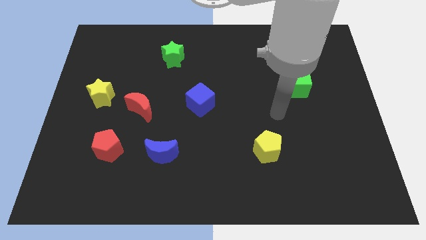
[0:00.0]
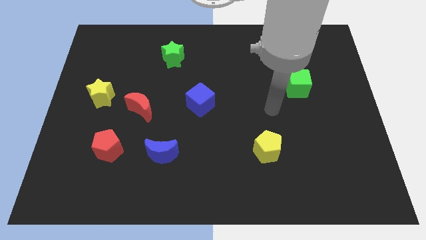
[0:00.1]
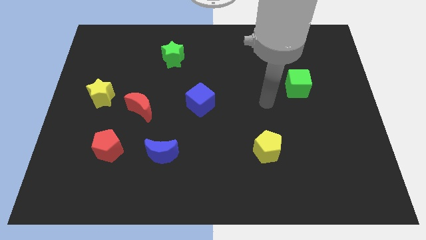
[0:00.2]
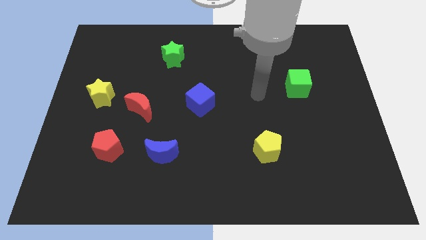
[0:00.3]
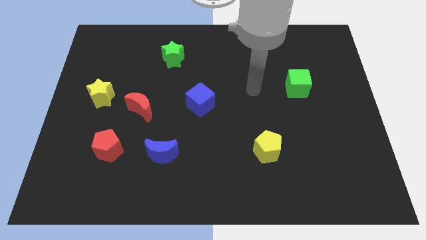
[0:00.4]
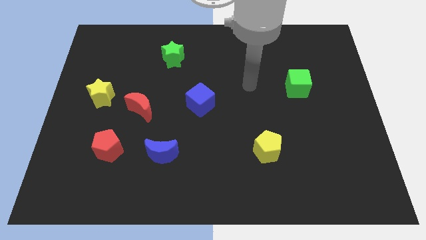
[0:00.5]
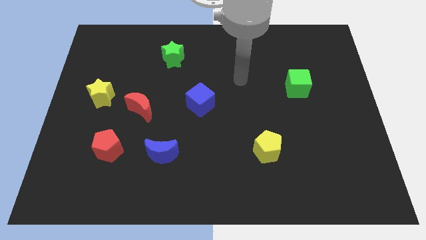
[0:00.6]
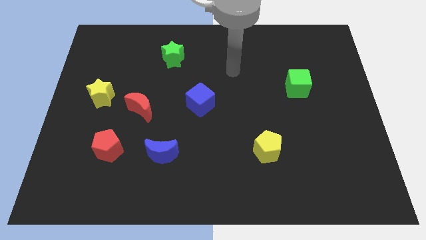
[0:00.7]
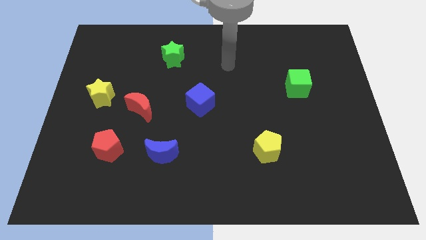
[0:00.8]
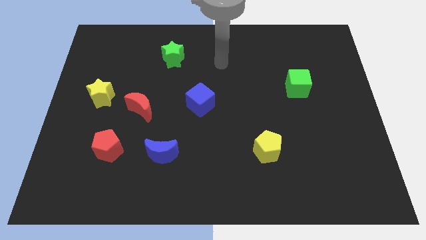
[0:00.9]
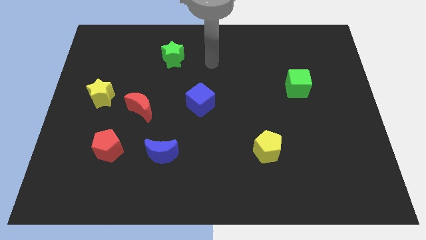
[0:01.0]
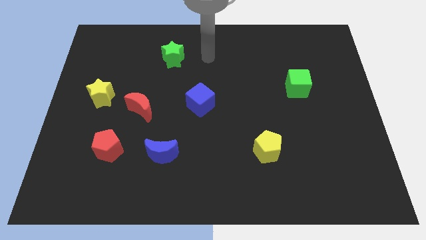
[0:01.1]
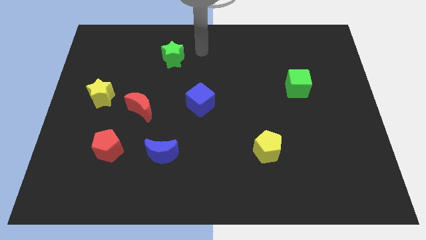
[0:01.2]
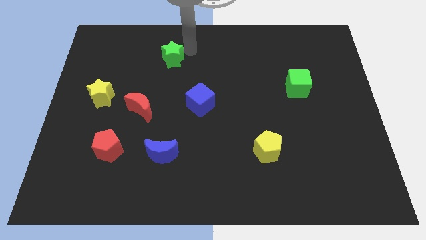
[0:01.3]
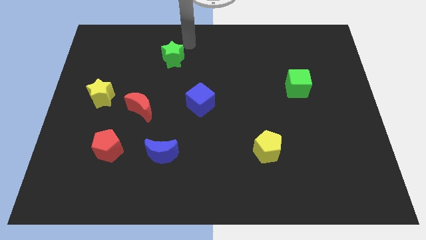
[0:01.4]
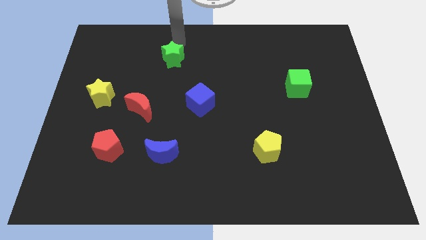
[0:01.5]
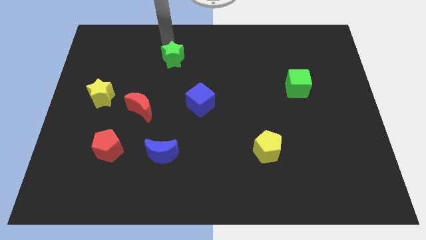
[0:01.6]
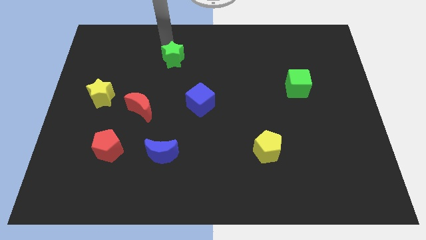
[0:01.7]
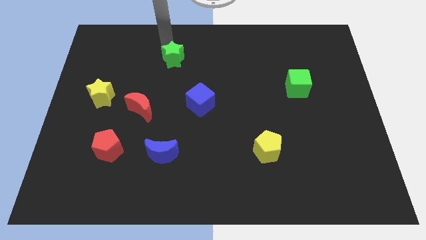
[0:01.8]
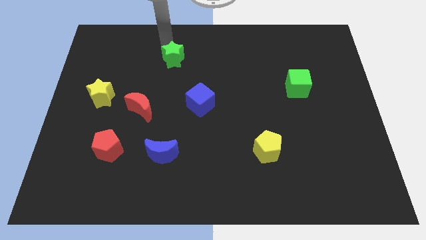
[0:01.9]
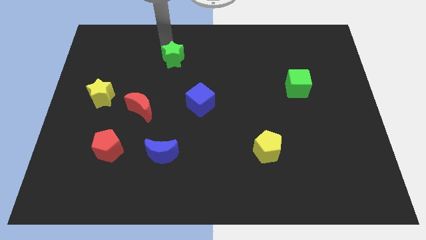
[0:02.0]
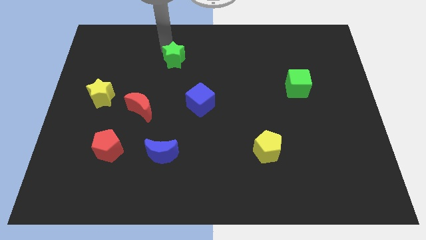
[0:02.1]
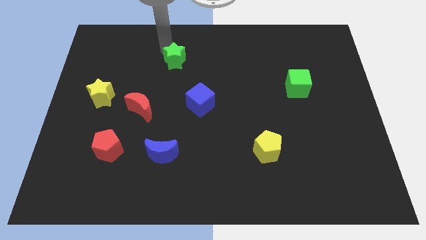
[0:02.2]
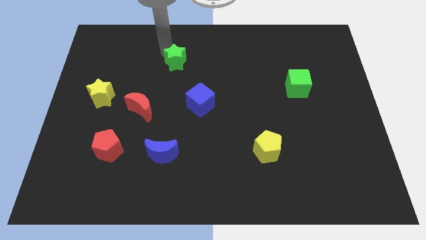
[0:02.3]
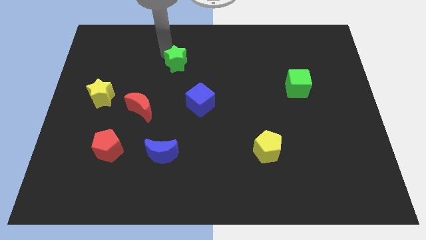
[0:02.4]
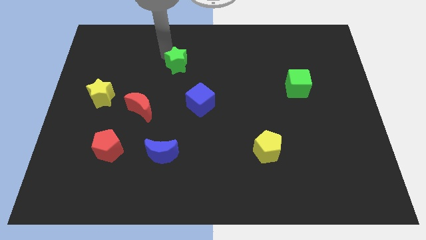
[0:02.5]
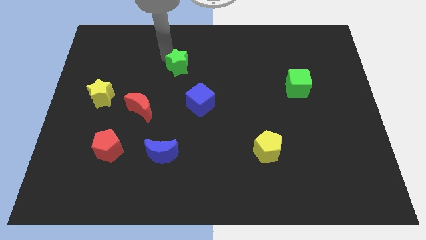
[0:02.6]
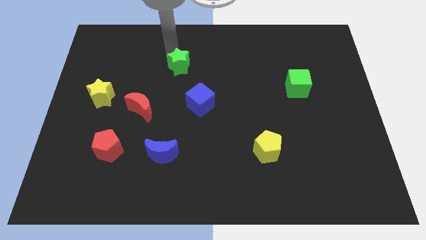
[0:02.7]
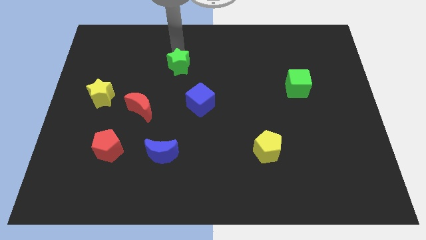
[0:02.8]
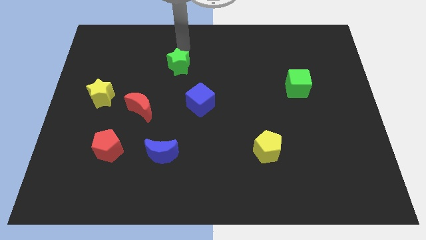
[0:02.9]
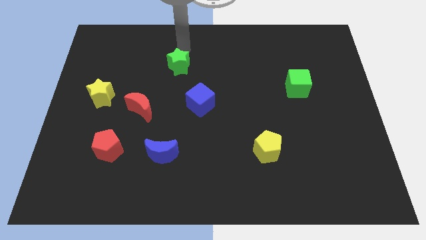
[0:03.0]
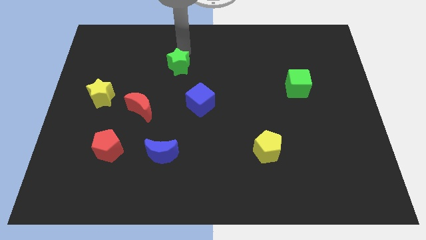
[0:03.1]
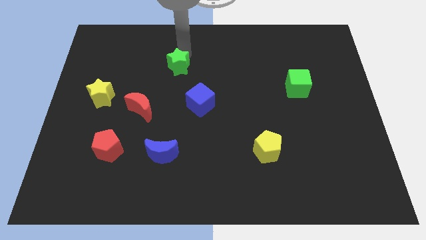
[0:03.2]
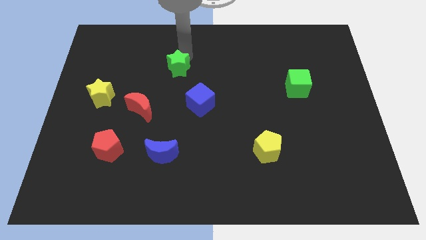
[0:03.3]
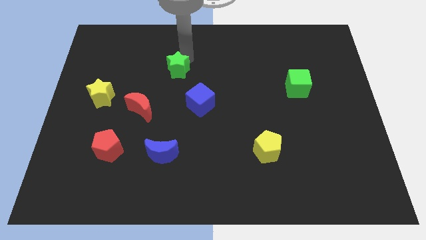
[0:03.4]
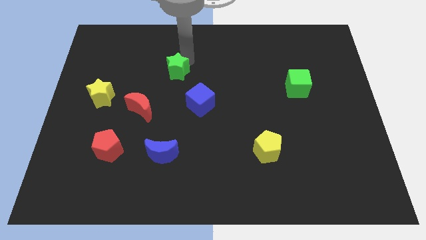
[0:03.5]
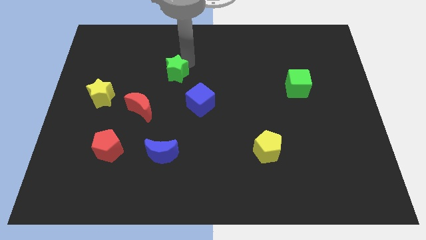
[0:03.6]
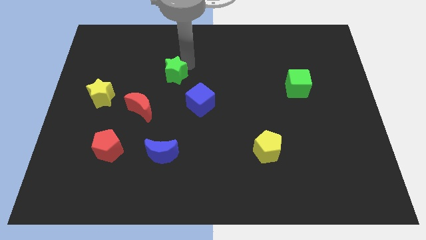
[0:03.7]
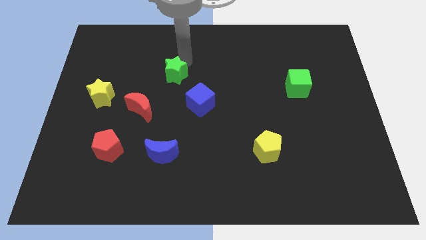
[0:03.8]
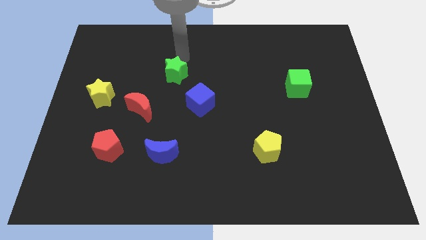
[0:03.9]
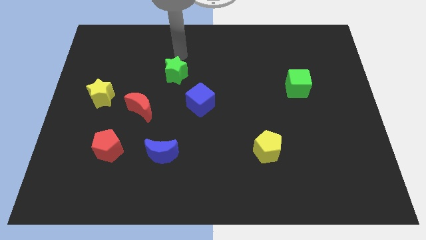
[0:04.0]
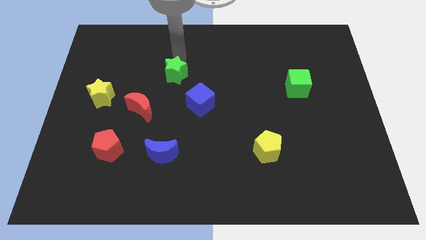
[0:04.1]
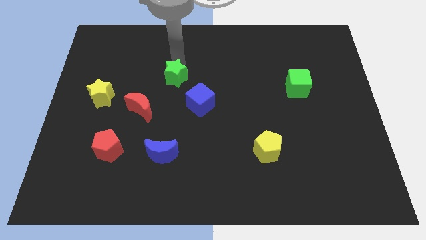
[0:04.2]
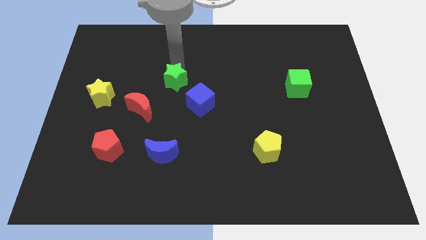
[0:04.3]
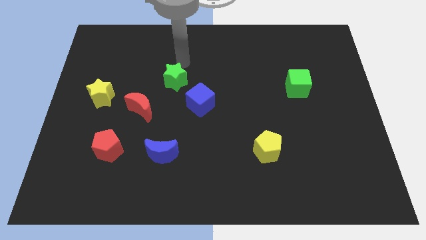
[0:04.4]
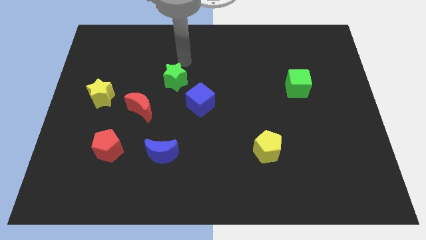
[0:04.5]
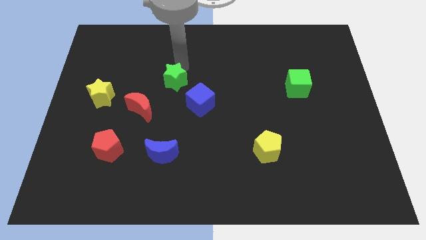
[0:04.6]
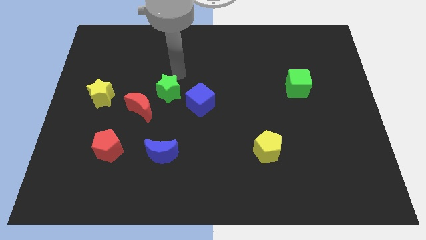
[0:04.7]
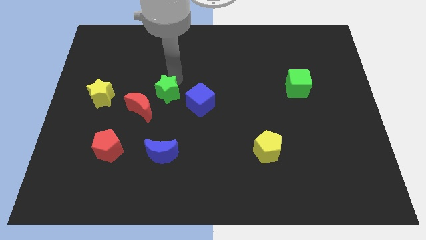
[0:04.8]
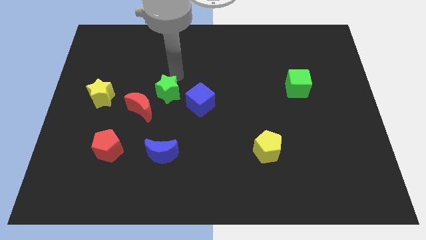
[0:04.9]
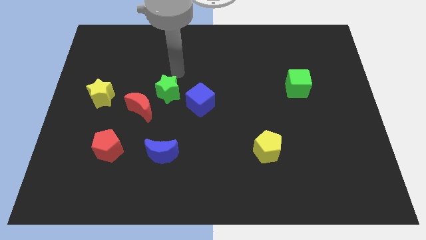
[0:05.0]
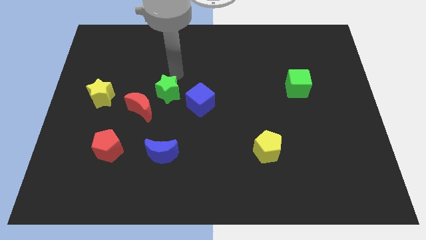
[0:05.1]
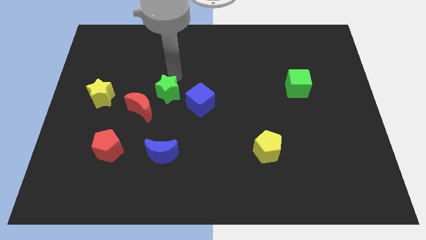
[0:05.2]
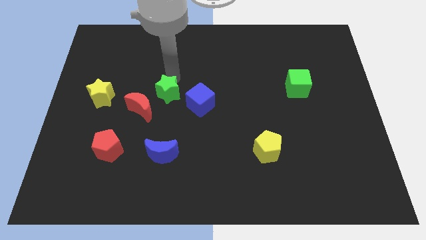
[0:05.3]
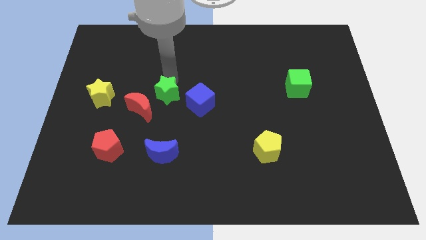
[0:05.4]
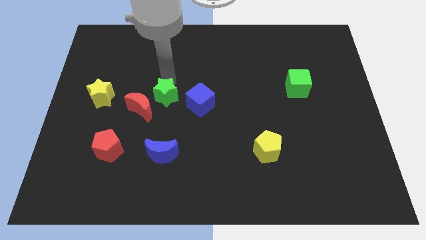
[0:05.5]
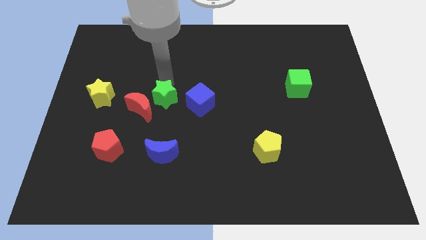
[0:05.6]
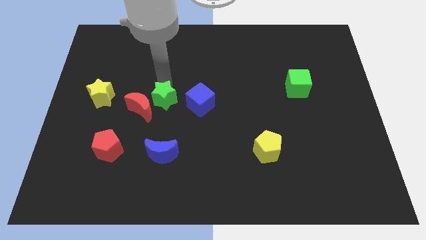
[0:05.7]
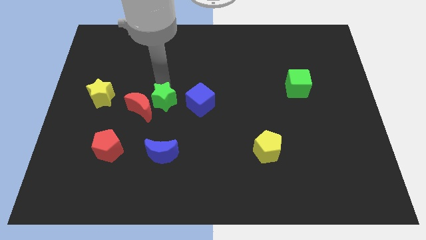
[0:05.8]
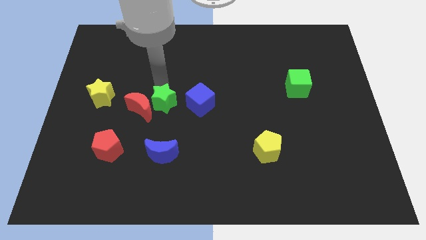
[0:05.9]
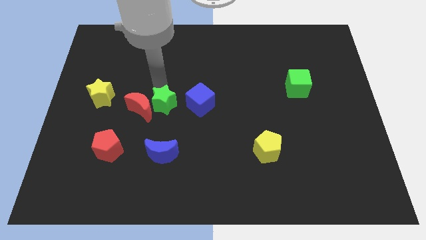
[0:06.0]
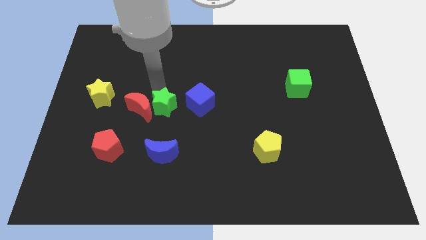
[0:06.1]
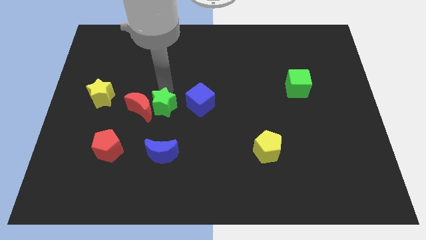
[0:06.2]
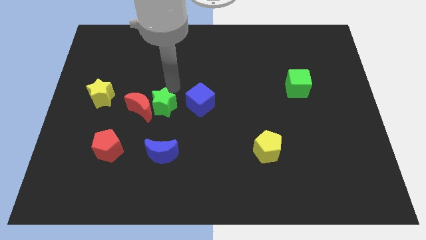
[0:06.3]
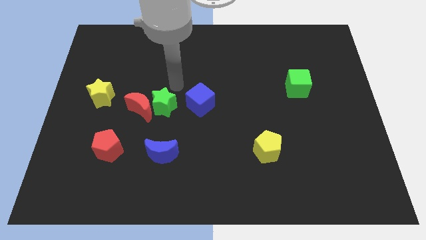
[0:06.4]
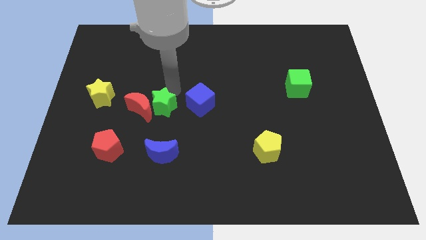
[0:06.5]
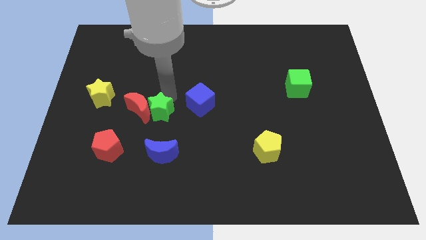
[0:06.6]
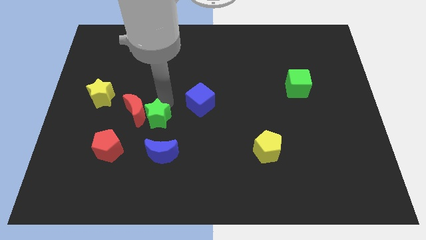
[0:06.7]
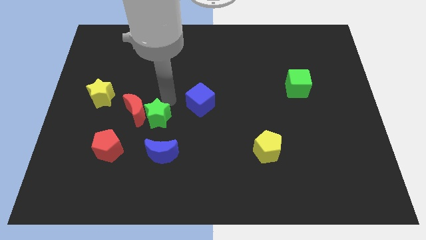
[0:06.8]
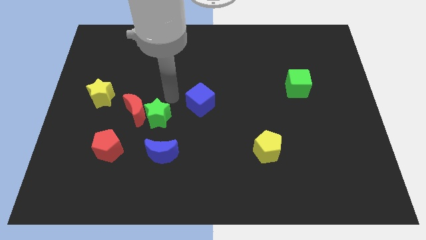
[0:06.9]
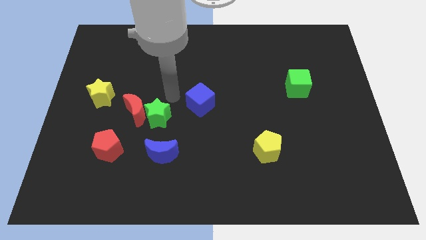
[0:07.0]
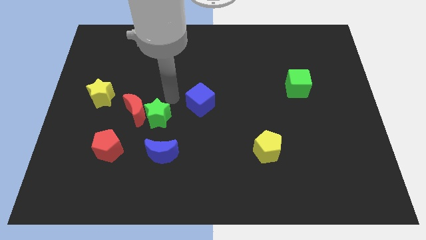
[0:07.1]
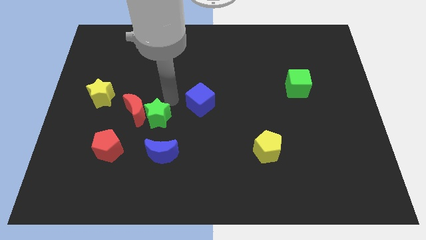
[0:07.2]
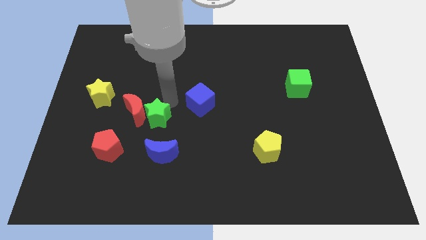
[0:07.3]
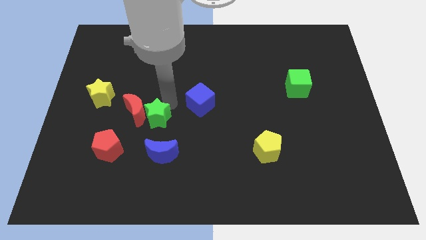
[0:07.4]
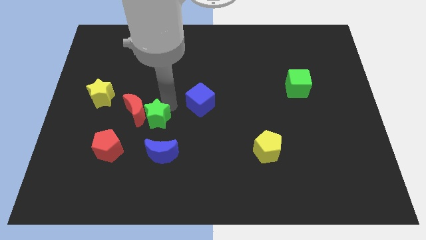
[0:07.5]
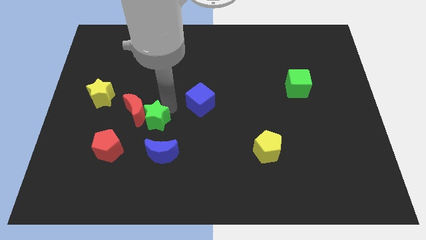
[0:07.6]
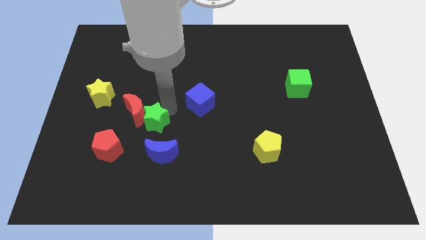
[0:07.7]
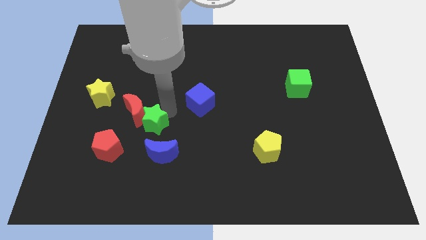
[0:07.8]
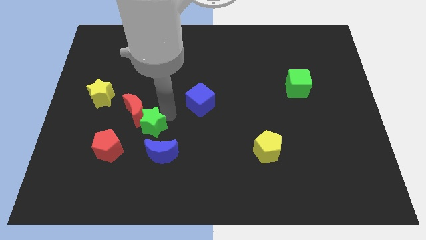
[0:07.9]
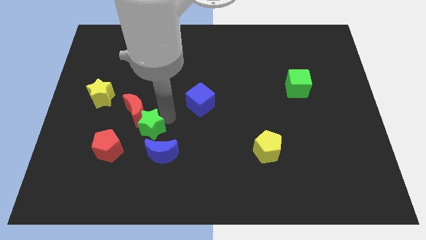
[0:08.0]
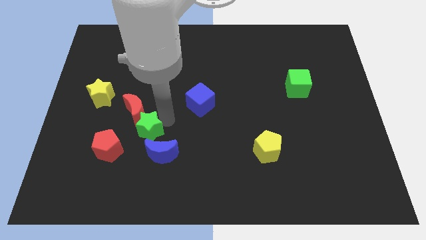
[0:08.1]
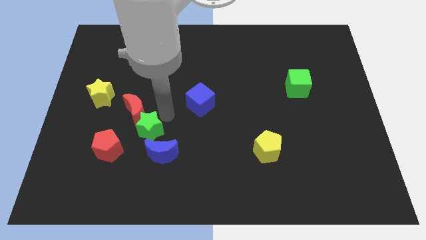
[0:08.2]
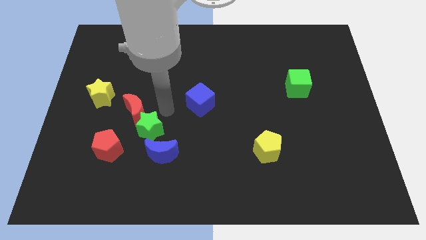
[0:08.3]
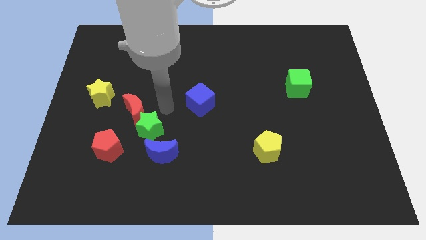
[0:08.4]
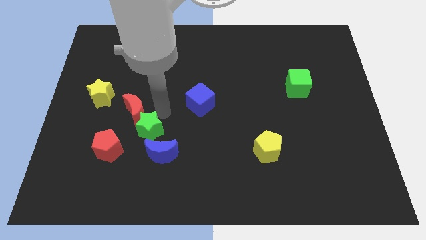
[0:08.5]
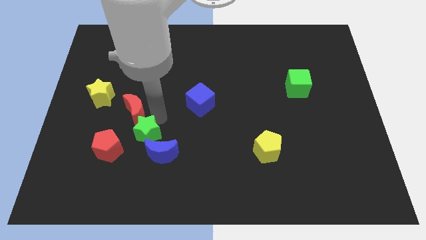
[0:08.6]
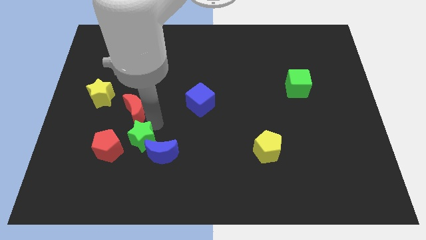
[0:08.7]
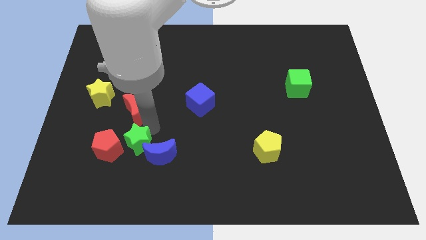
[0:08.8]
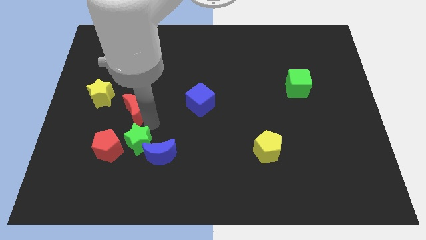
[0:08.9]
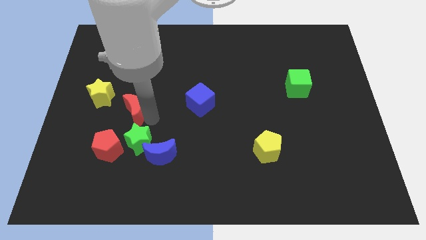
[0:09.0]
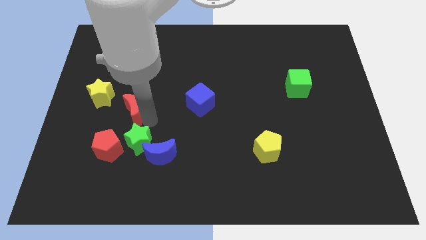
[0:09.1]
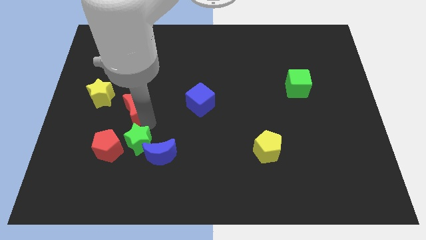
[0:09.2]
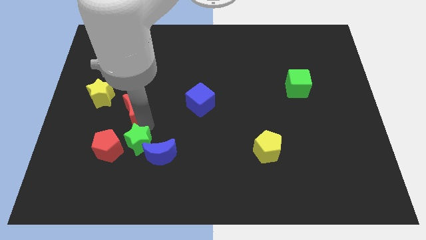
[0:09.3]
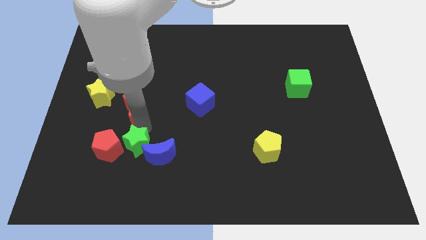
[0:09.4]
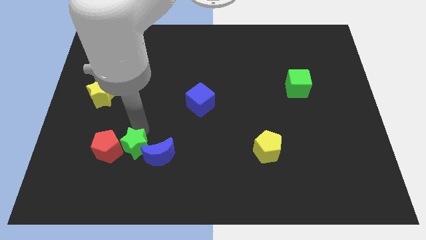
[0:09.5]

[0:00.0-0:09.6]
slide the green star diagonally down and to the right of the red pentagon
